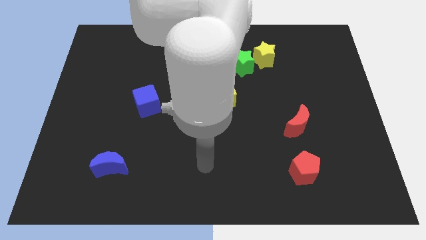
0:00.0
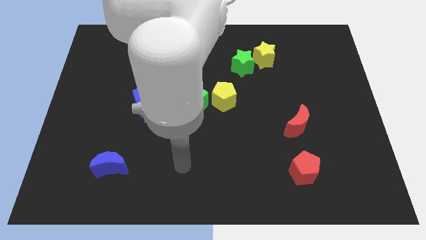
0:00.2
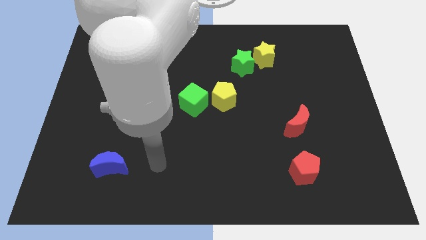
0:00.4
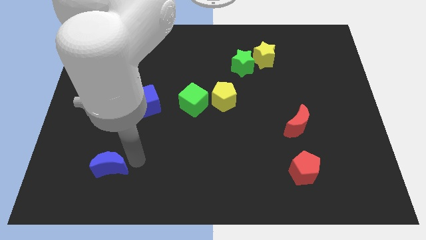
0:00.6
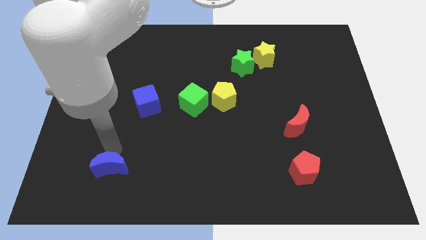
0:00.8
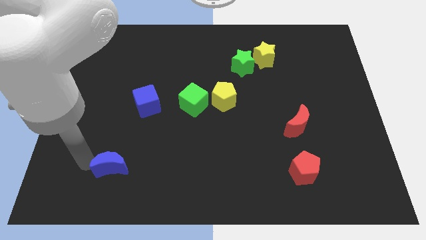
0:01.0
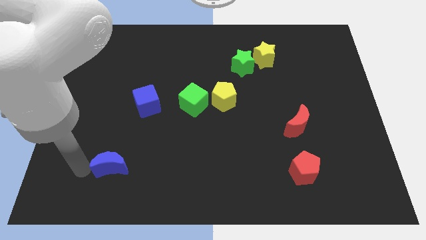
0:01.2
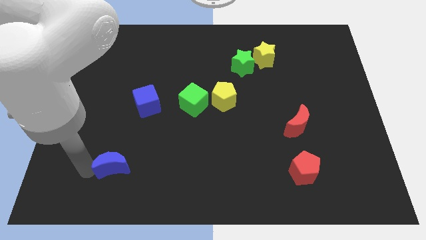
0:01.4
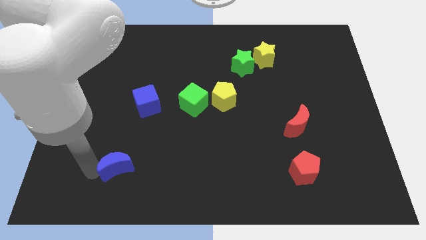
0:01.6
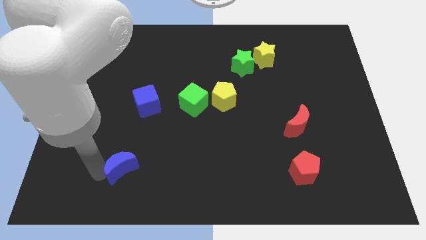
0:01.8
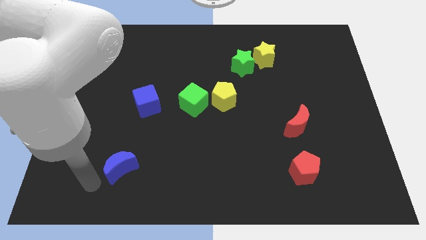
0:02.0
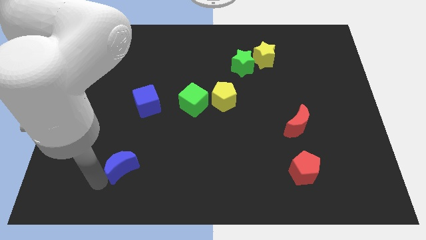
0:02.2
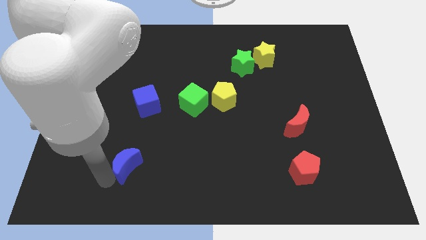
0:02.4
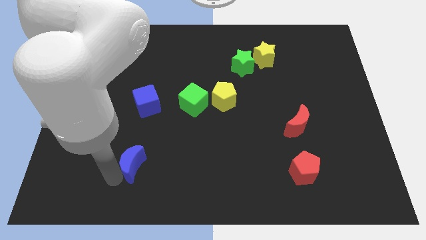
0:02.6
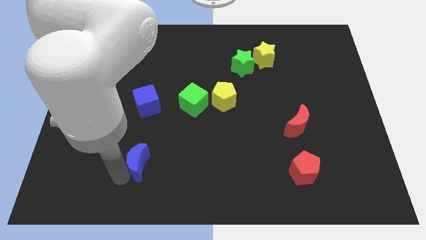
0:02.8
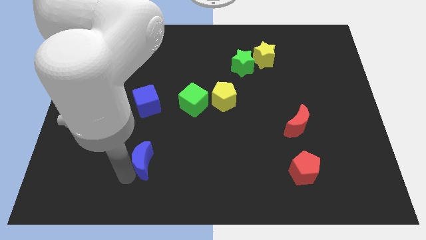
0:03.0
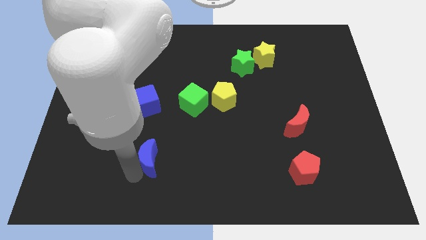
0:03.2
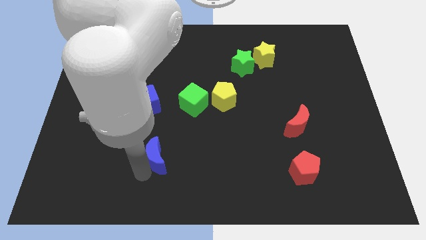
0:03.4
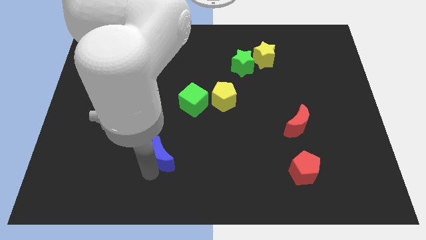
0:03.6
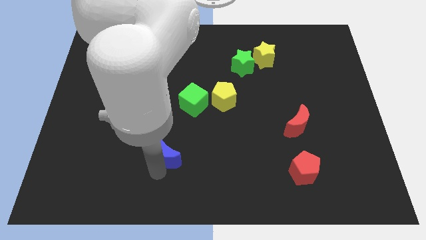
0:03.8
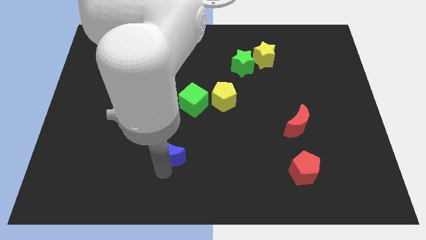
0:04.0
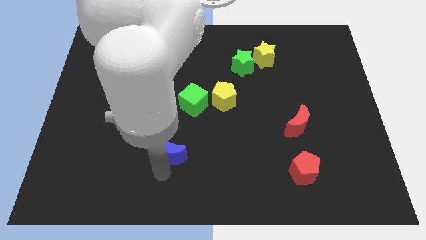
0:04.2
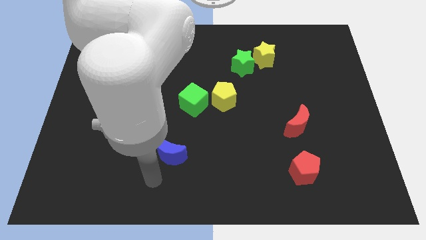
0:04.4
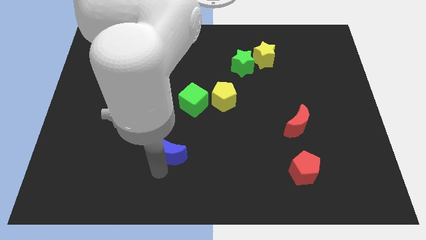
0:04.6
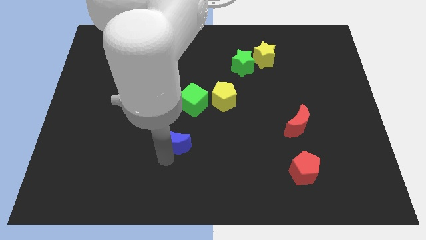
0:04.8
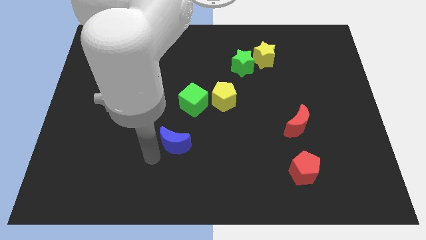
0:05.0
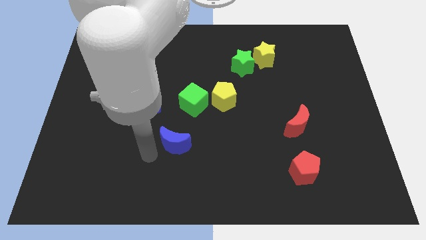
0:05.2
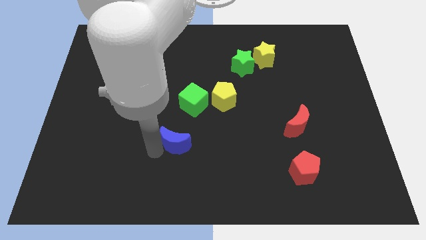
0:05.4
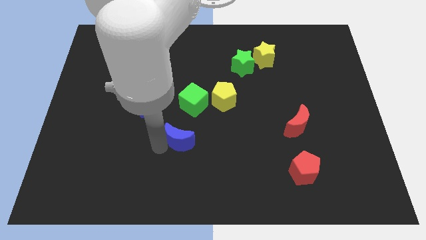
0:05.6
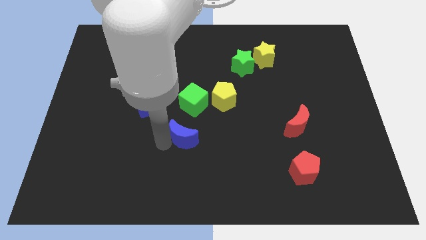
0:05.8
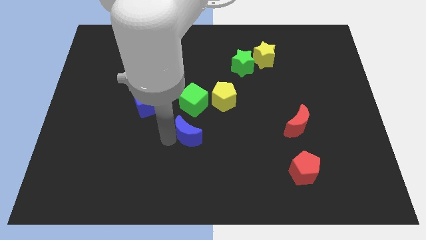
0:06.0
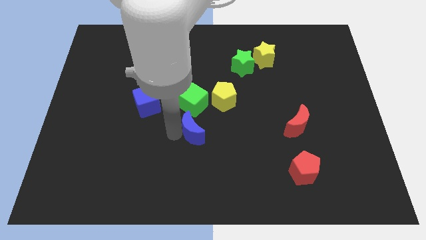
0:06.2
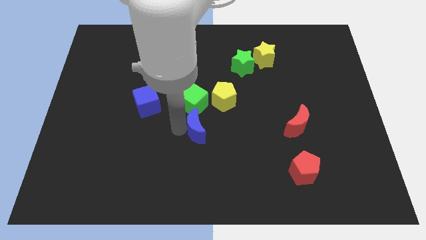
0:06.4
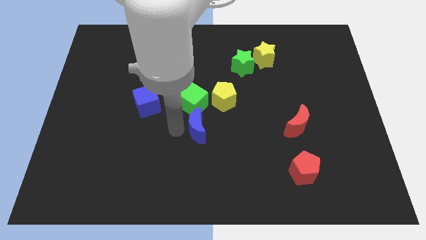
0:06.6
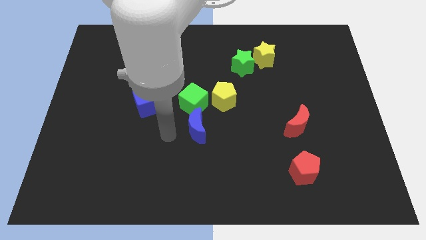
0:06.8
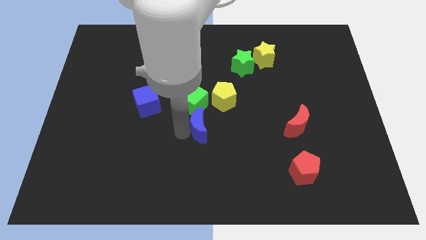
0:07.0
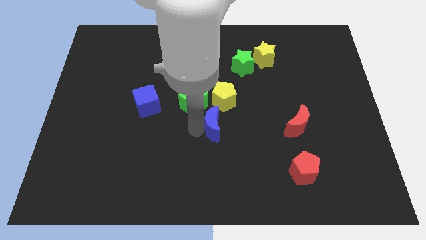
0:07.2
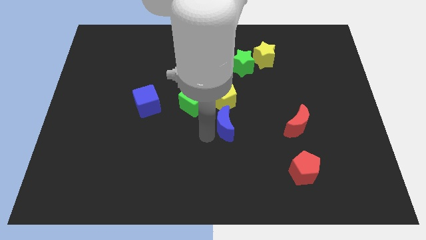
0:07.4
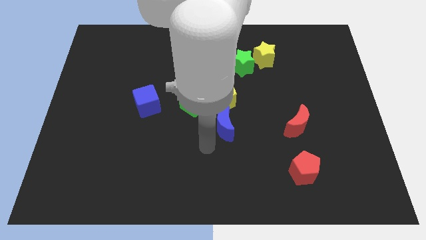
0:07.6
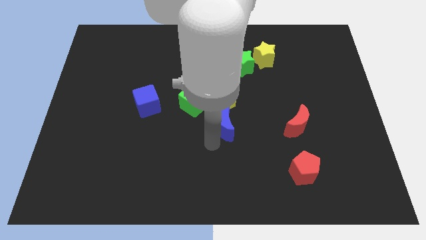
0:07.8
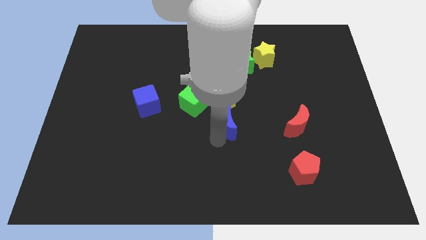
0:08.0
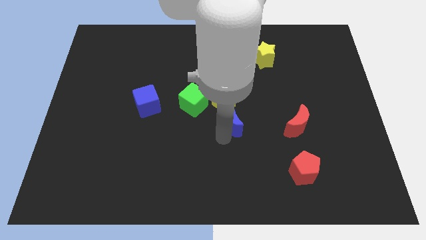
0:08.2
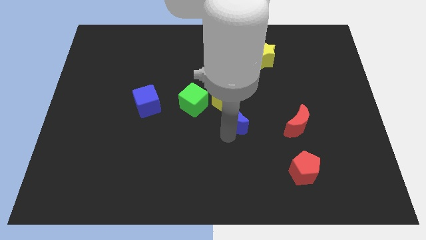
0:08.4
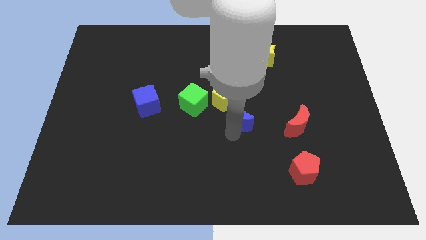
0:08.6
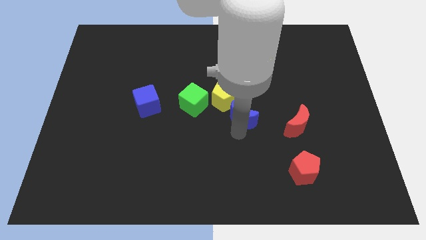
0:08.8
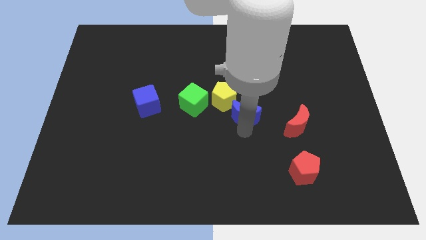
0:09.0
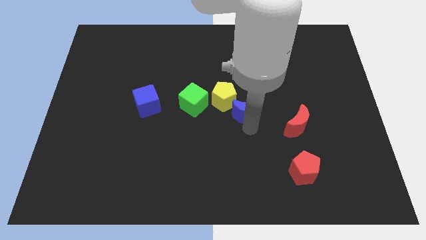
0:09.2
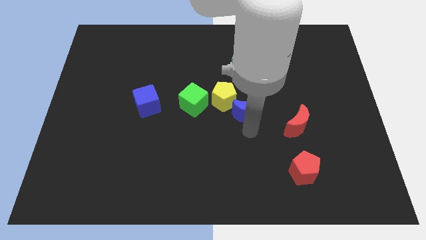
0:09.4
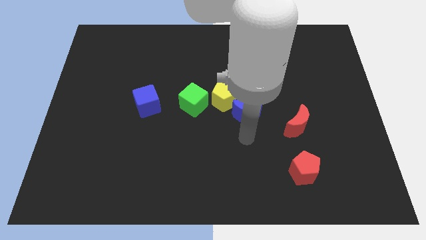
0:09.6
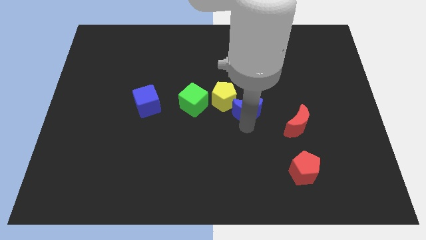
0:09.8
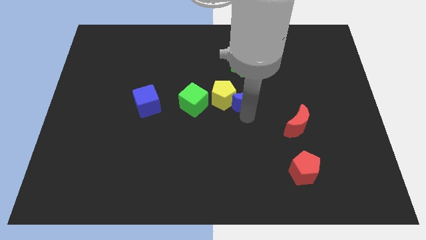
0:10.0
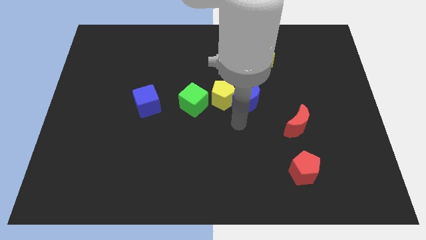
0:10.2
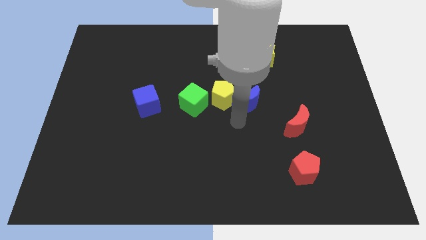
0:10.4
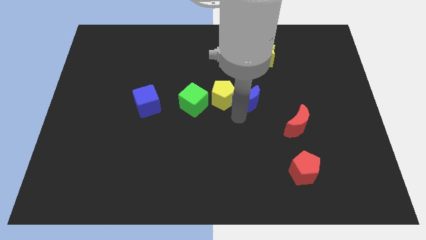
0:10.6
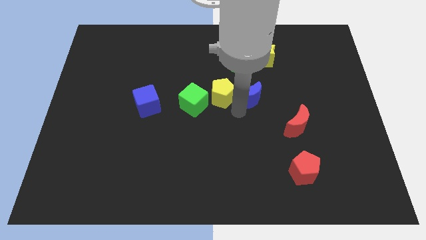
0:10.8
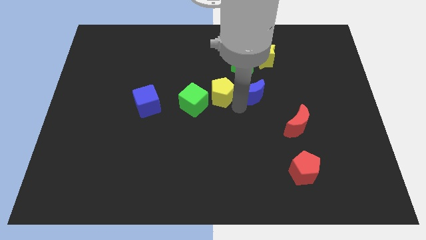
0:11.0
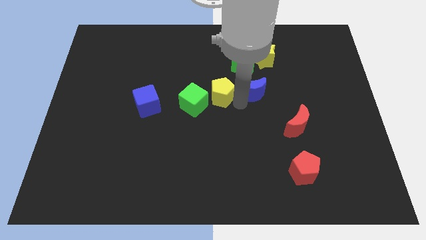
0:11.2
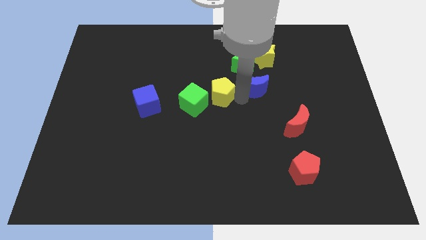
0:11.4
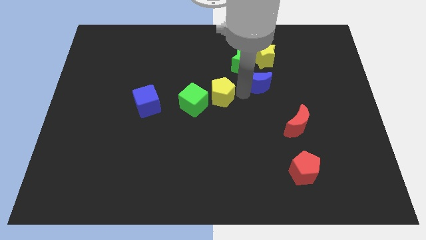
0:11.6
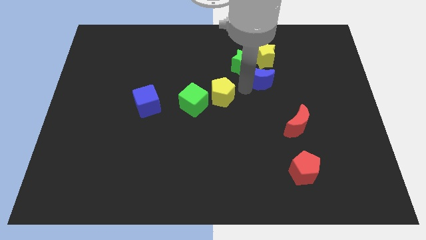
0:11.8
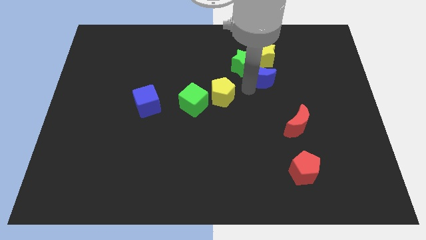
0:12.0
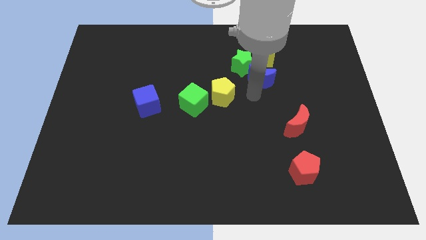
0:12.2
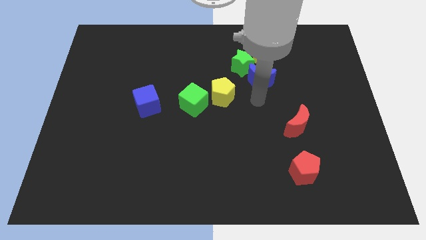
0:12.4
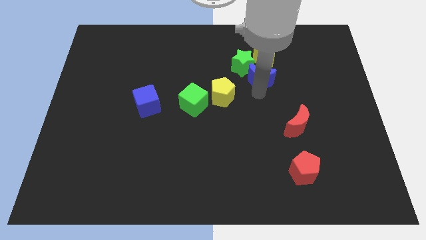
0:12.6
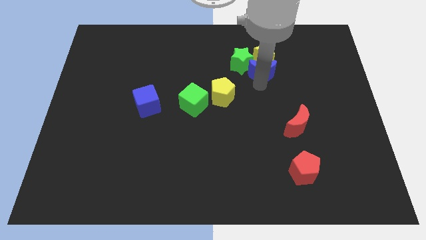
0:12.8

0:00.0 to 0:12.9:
move the blue moon next to the yellow star
